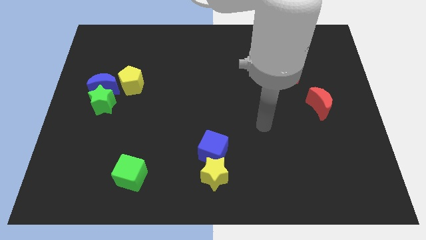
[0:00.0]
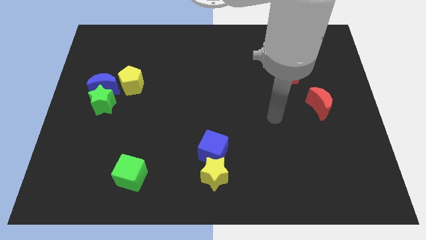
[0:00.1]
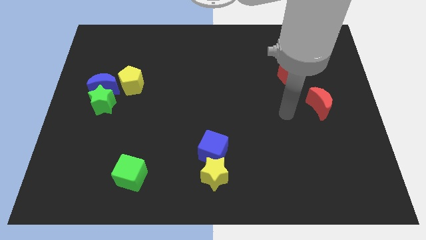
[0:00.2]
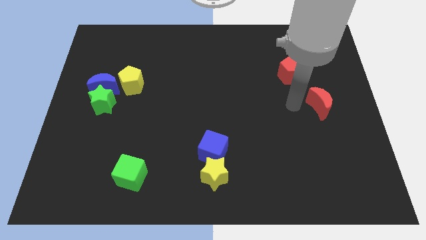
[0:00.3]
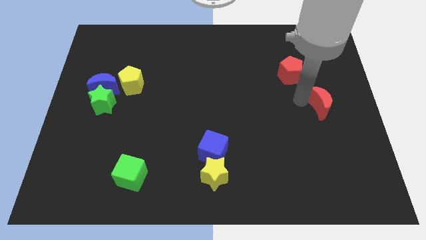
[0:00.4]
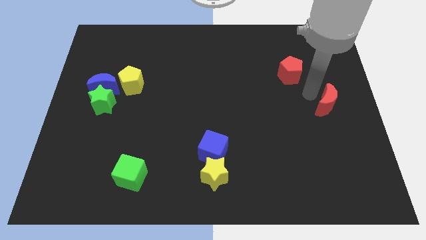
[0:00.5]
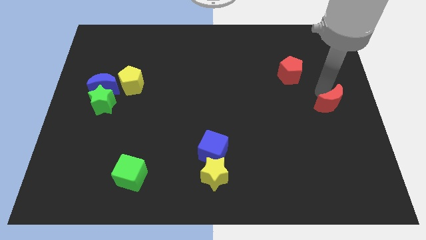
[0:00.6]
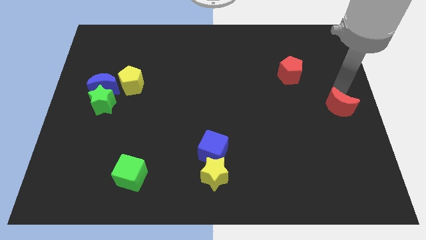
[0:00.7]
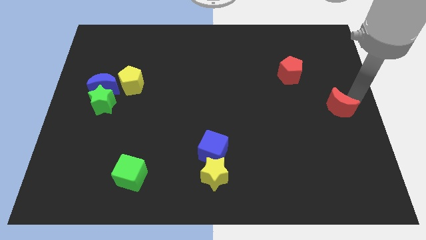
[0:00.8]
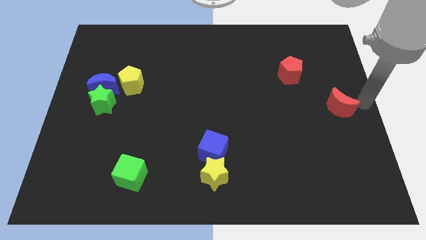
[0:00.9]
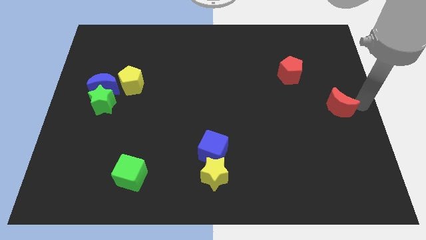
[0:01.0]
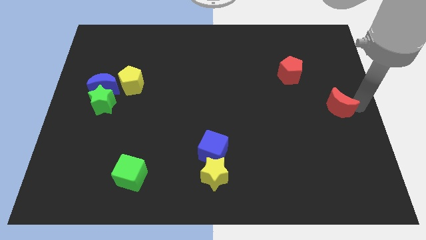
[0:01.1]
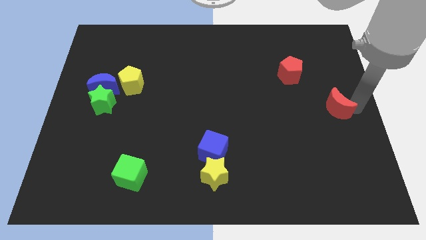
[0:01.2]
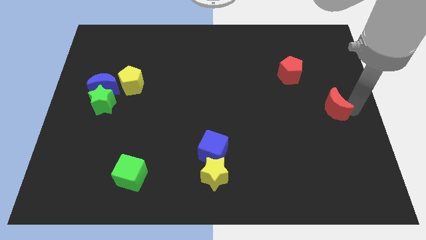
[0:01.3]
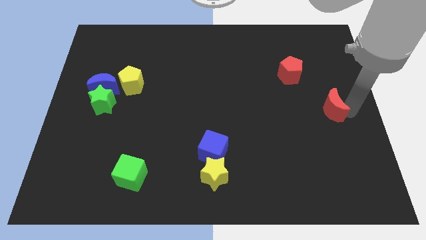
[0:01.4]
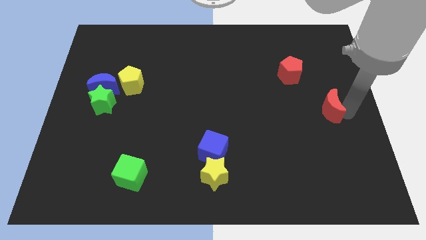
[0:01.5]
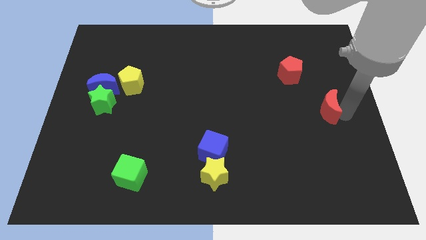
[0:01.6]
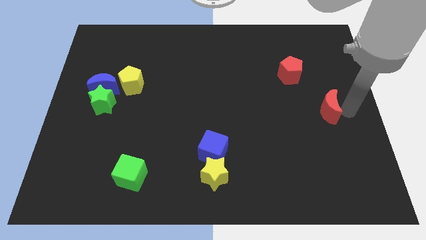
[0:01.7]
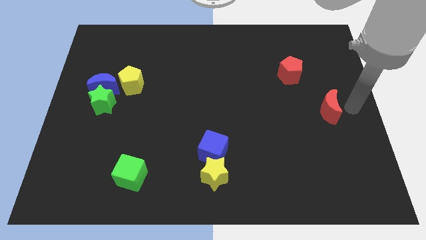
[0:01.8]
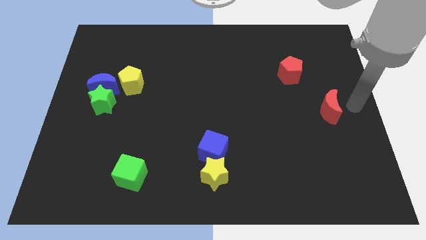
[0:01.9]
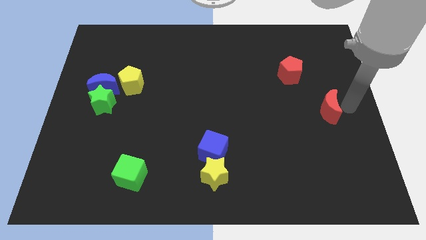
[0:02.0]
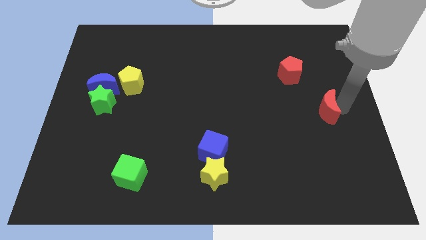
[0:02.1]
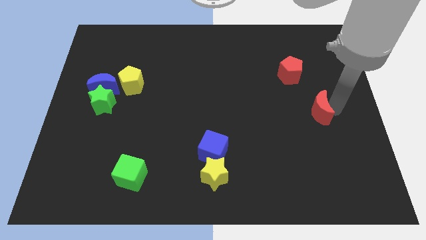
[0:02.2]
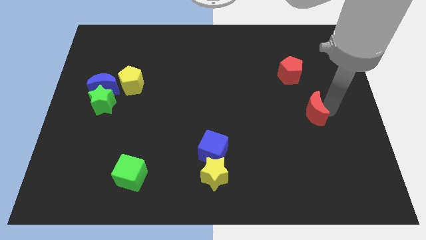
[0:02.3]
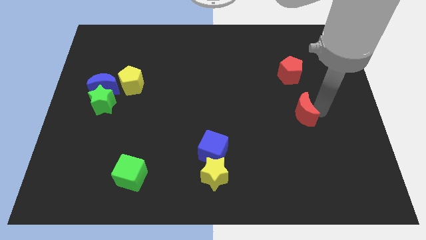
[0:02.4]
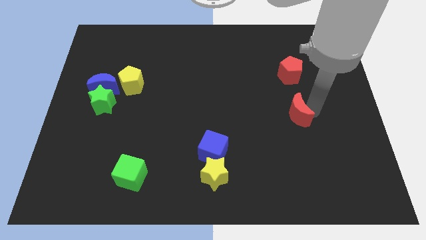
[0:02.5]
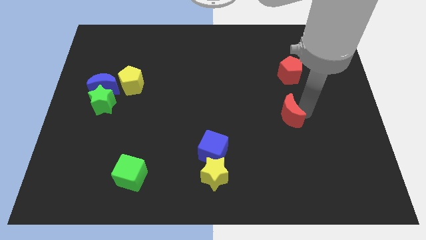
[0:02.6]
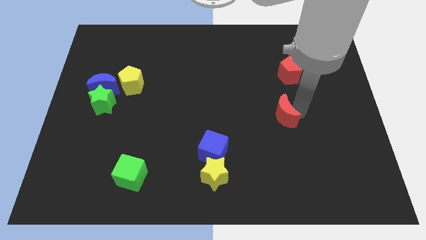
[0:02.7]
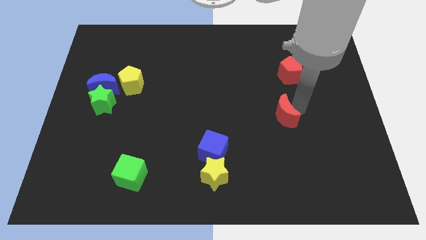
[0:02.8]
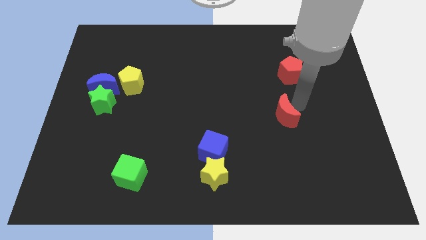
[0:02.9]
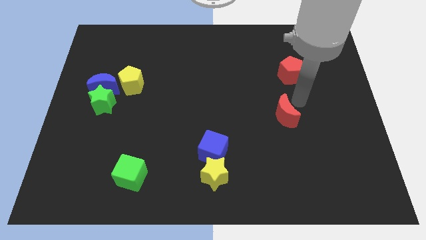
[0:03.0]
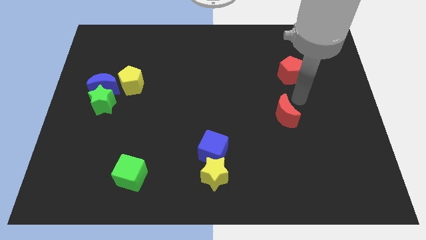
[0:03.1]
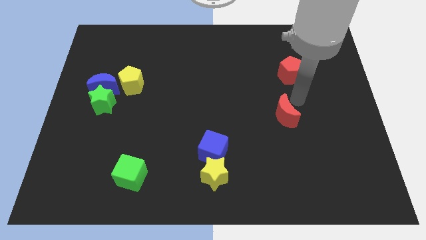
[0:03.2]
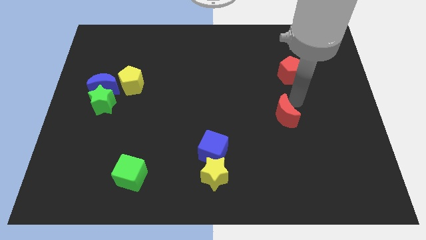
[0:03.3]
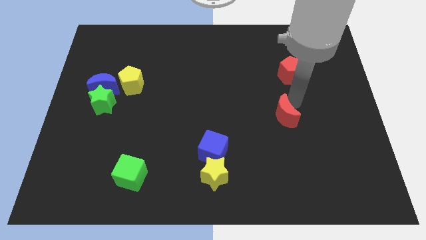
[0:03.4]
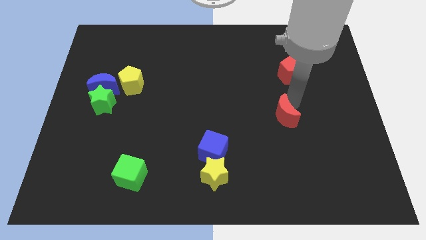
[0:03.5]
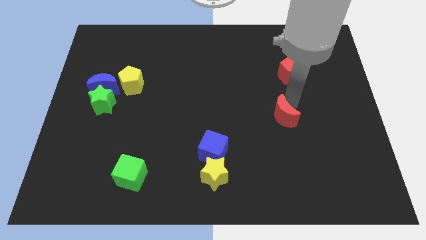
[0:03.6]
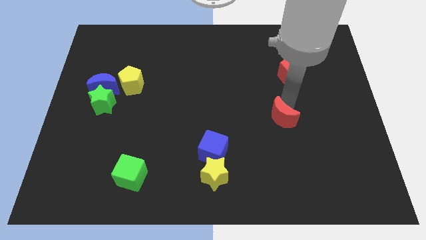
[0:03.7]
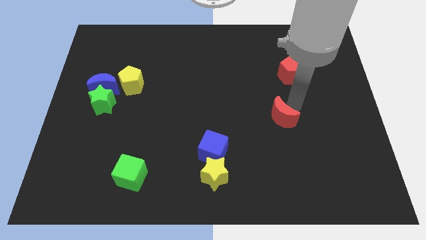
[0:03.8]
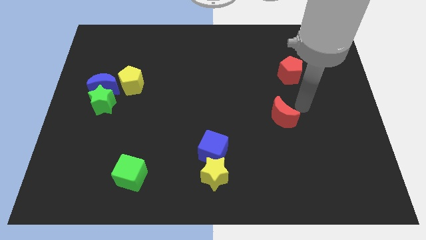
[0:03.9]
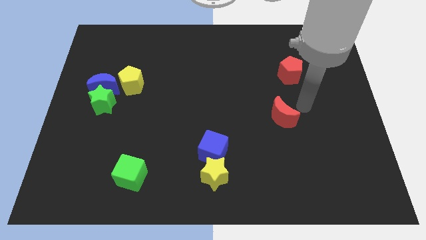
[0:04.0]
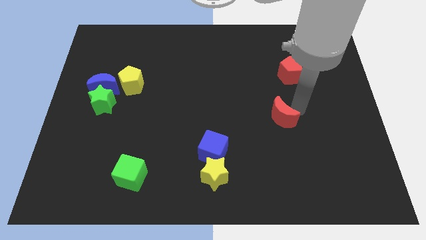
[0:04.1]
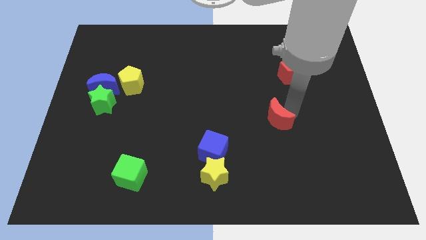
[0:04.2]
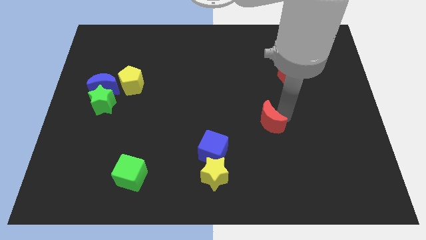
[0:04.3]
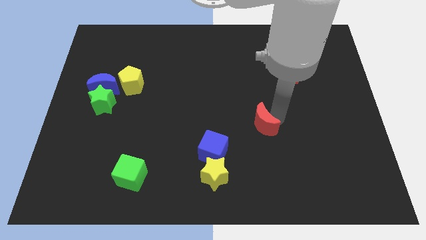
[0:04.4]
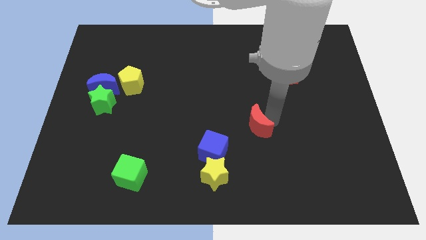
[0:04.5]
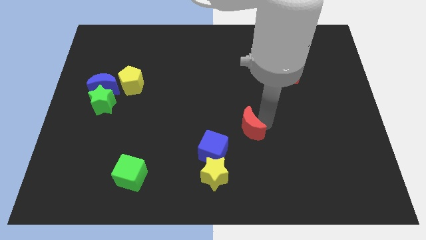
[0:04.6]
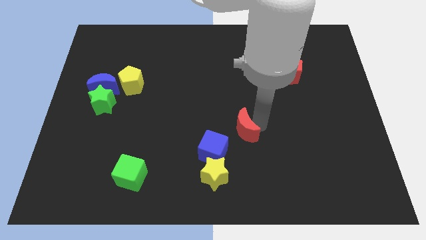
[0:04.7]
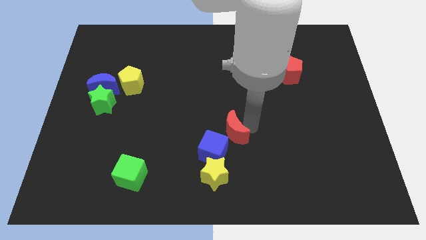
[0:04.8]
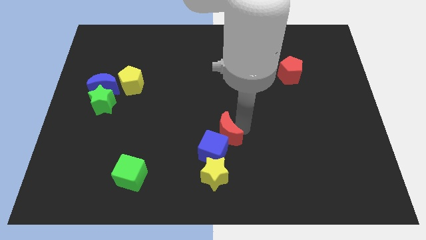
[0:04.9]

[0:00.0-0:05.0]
push the red moon next to the blue cube

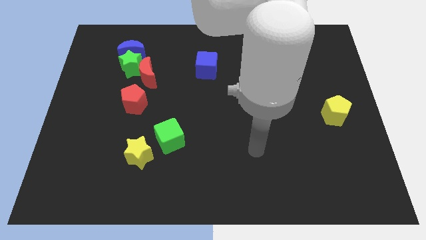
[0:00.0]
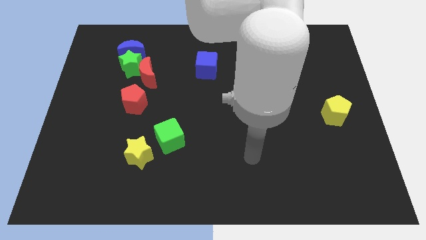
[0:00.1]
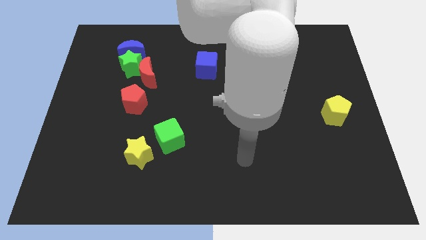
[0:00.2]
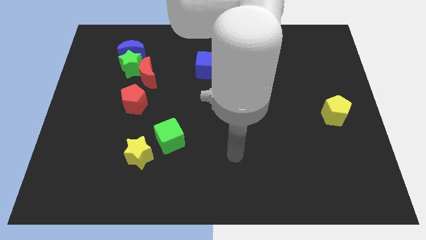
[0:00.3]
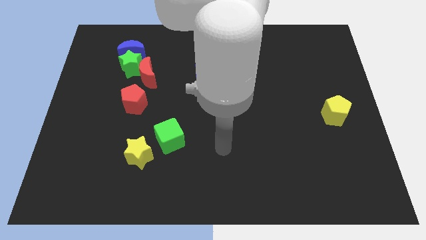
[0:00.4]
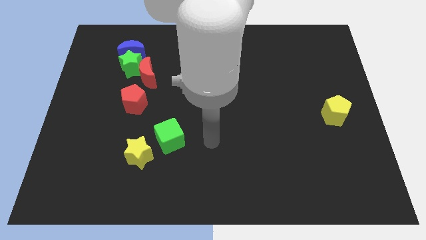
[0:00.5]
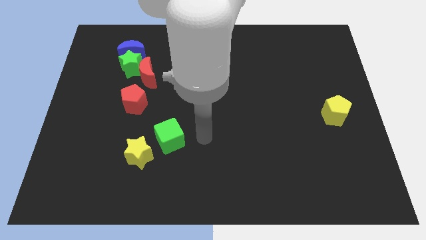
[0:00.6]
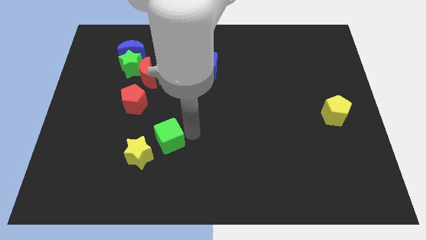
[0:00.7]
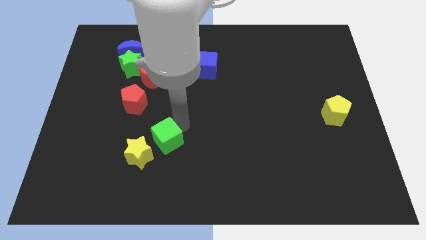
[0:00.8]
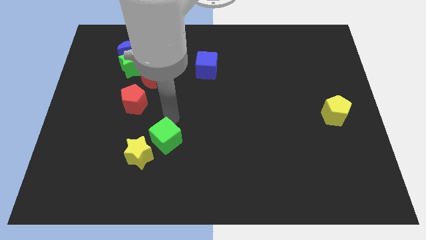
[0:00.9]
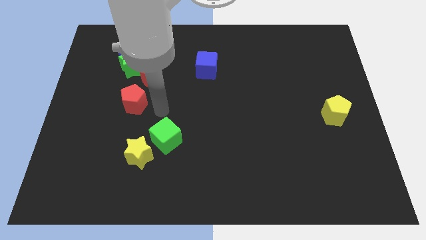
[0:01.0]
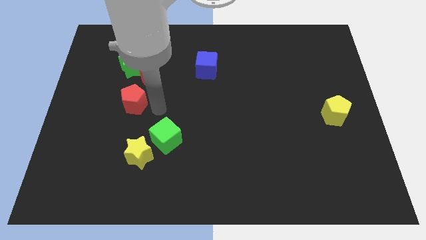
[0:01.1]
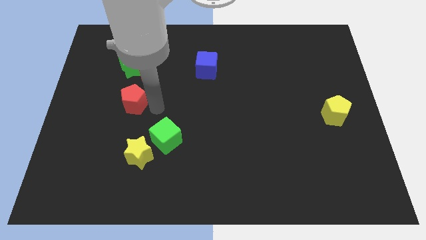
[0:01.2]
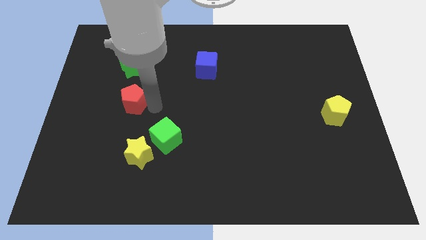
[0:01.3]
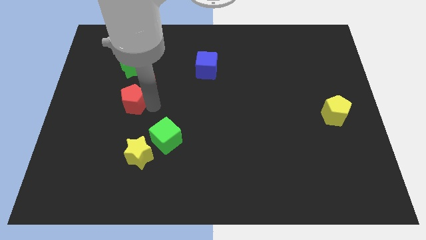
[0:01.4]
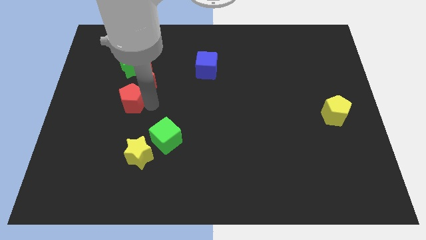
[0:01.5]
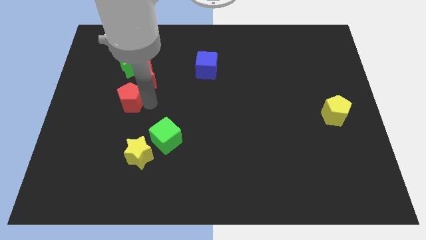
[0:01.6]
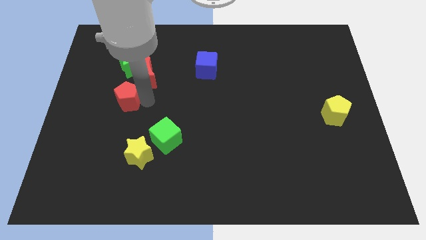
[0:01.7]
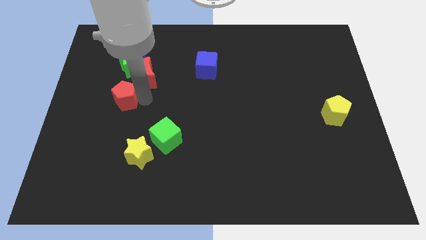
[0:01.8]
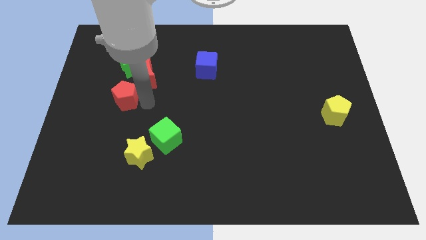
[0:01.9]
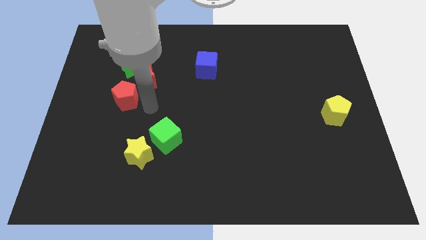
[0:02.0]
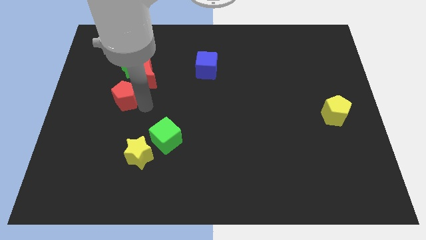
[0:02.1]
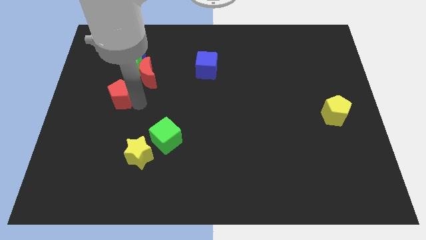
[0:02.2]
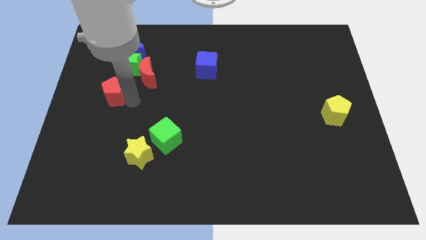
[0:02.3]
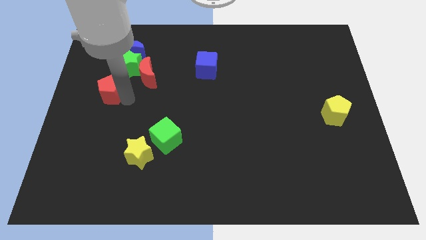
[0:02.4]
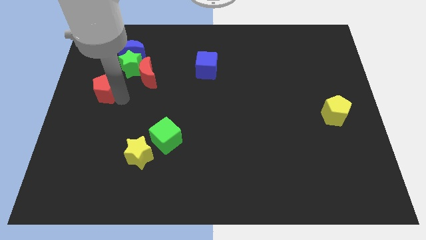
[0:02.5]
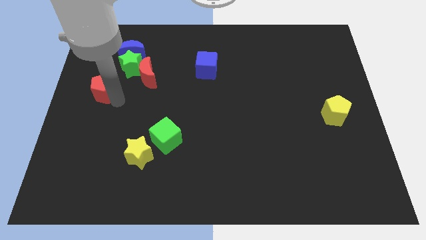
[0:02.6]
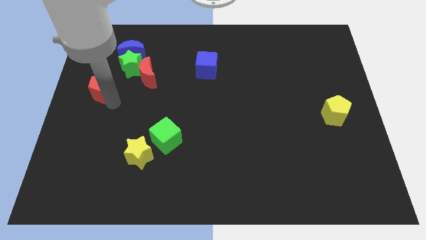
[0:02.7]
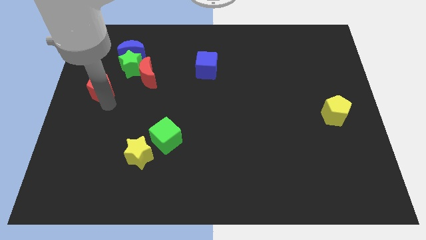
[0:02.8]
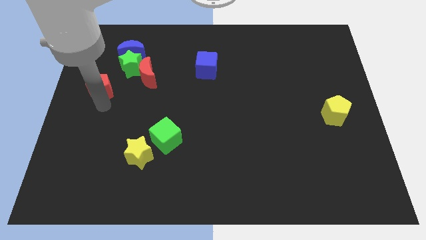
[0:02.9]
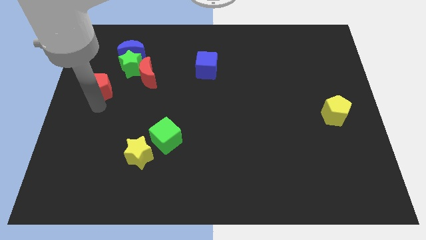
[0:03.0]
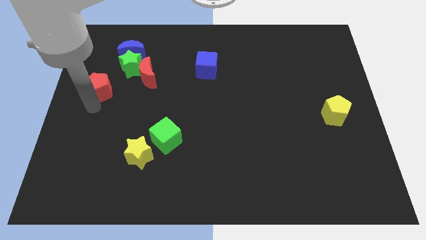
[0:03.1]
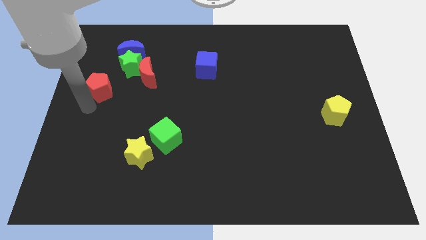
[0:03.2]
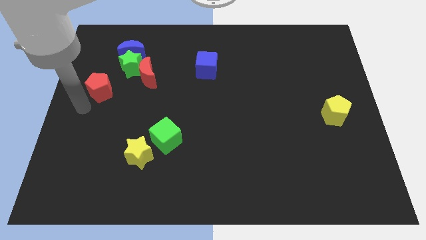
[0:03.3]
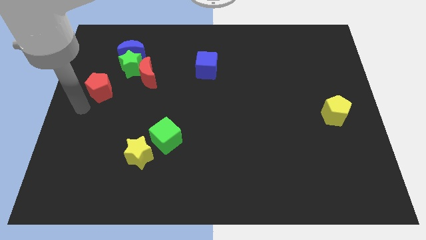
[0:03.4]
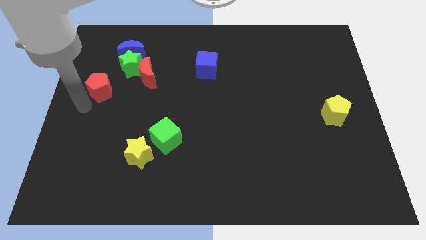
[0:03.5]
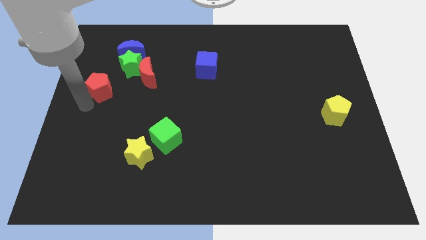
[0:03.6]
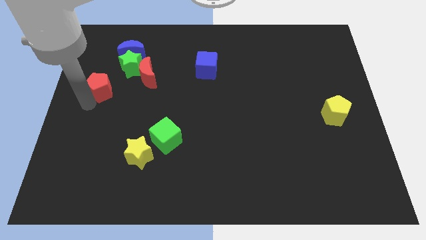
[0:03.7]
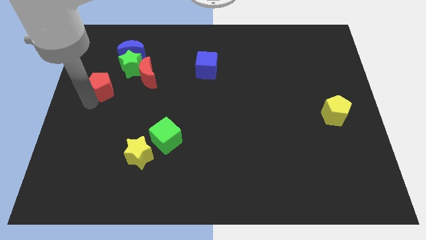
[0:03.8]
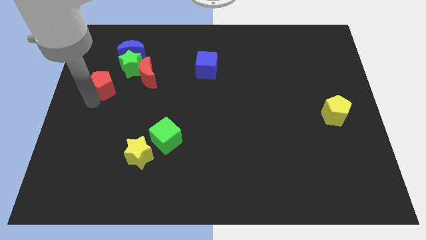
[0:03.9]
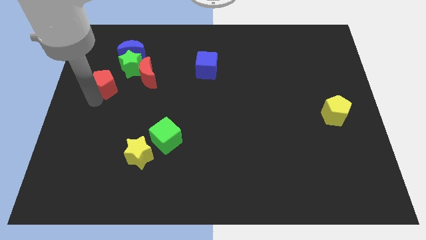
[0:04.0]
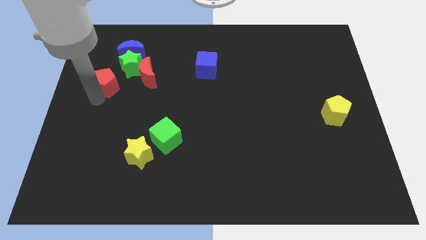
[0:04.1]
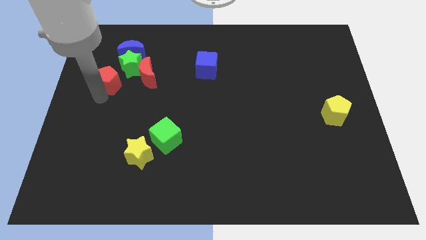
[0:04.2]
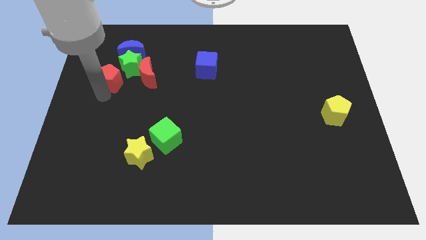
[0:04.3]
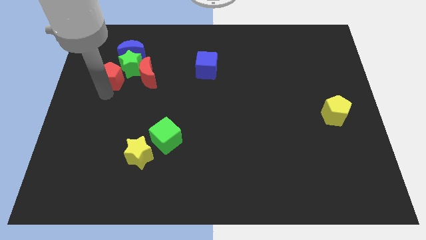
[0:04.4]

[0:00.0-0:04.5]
put the red pentagon towards the green star
